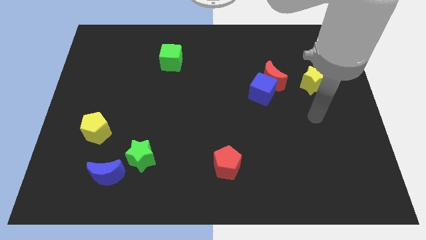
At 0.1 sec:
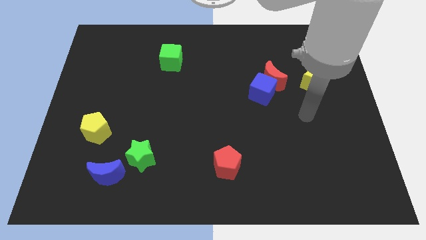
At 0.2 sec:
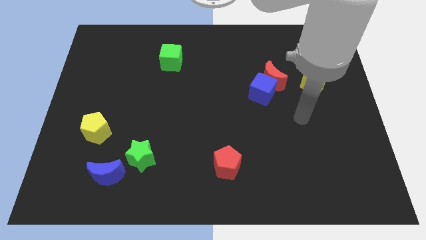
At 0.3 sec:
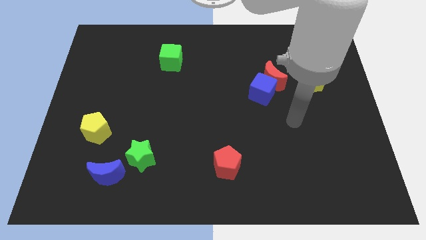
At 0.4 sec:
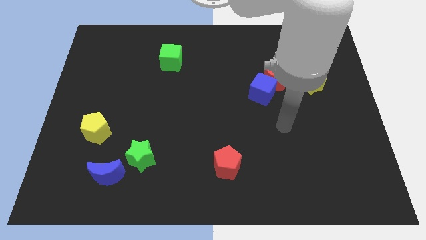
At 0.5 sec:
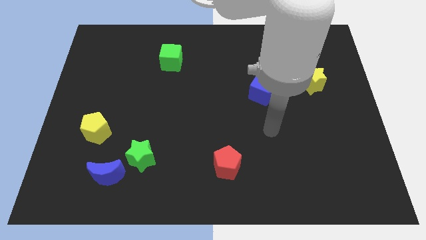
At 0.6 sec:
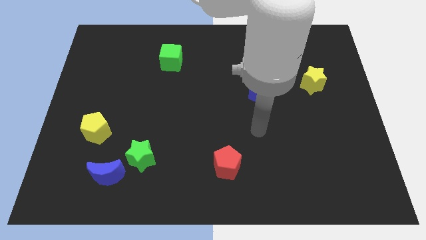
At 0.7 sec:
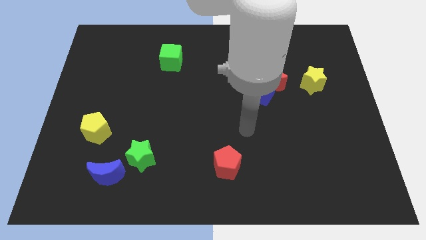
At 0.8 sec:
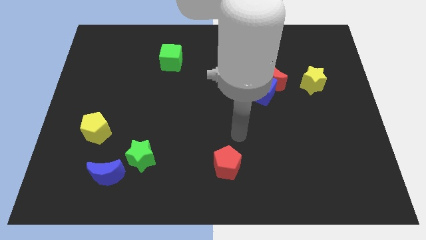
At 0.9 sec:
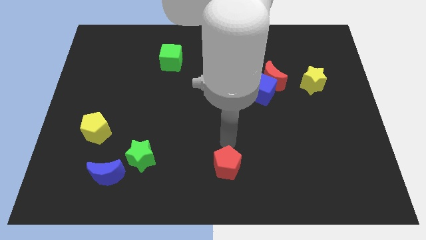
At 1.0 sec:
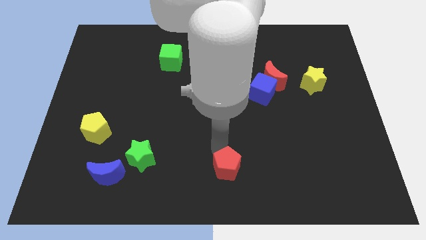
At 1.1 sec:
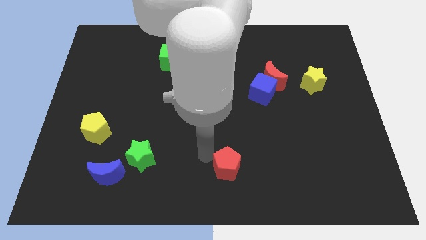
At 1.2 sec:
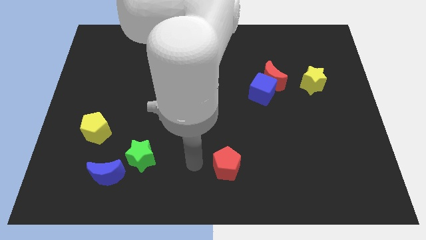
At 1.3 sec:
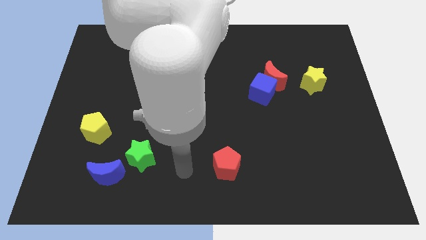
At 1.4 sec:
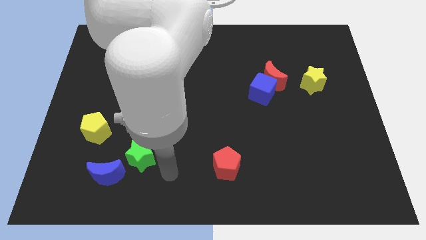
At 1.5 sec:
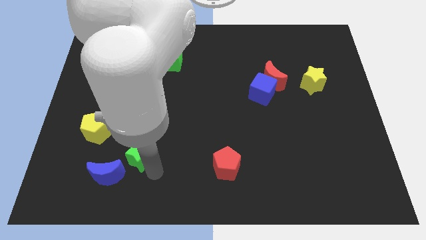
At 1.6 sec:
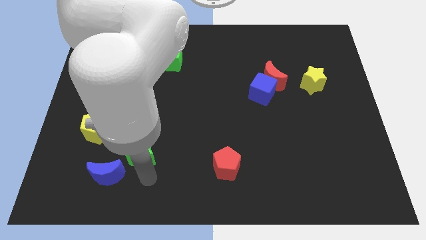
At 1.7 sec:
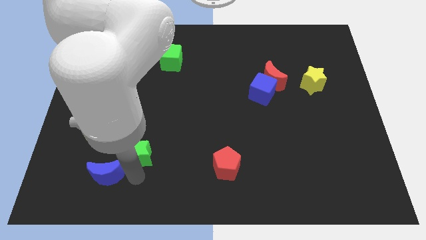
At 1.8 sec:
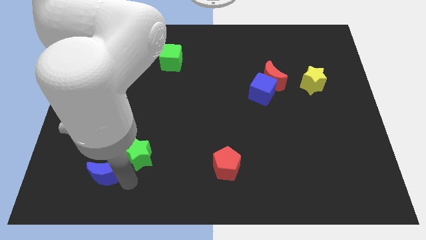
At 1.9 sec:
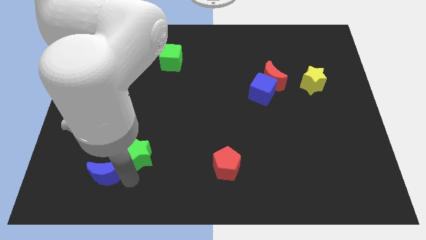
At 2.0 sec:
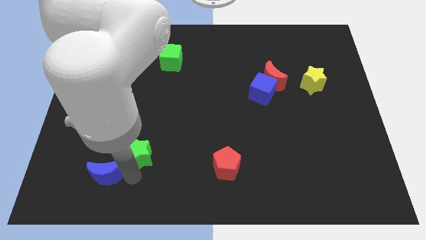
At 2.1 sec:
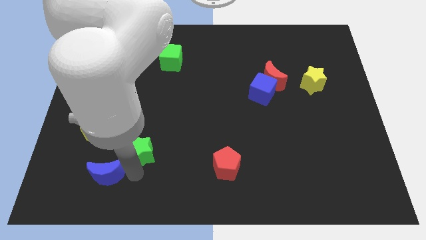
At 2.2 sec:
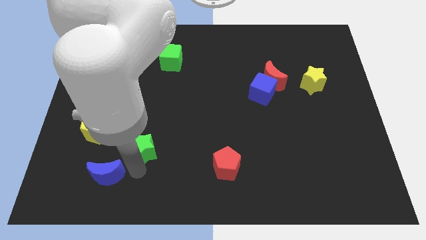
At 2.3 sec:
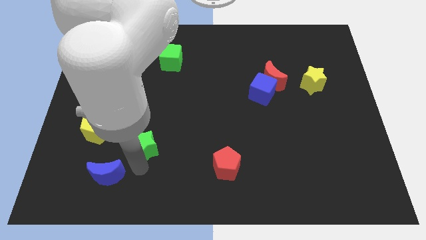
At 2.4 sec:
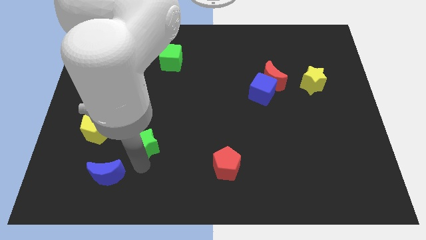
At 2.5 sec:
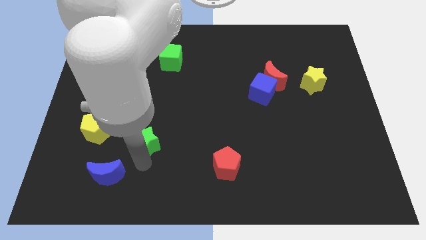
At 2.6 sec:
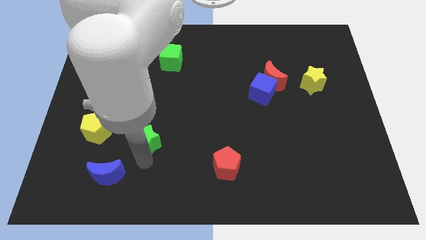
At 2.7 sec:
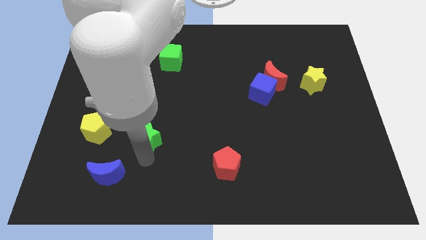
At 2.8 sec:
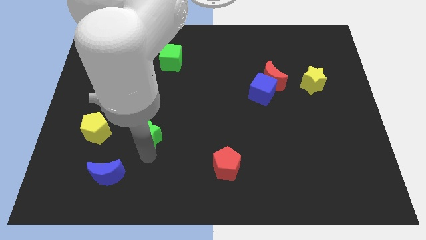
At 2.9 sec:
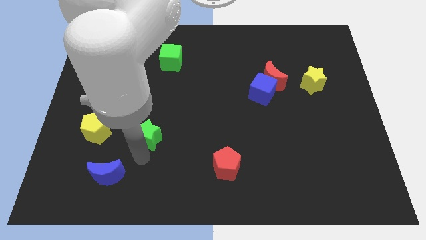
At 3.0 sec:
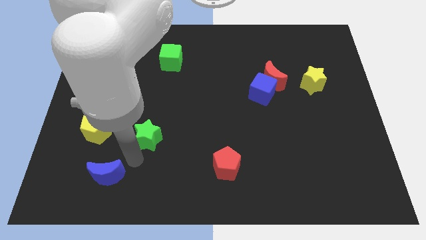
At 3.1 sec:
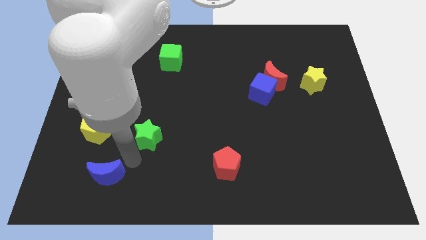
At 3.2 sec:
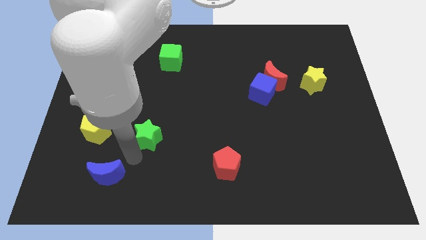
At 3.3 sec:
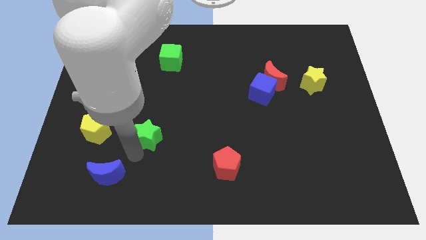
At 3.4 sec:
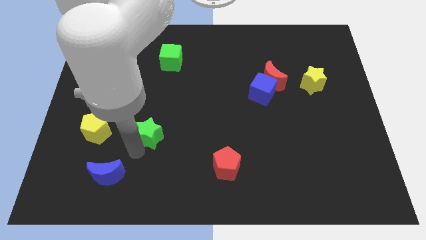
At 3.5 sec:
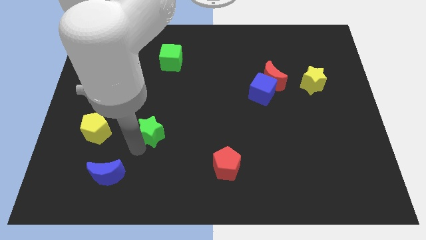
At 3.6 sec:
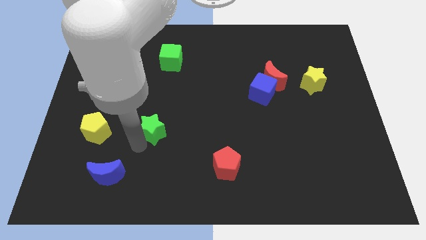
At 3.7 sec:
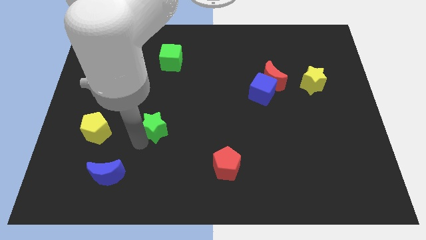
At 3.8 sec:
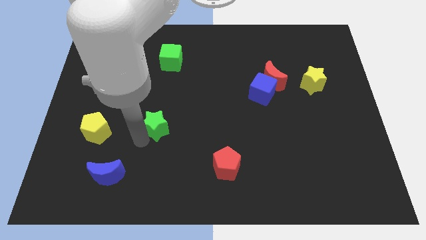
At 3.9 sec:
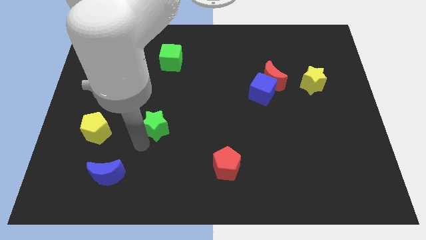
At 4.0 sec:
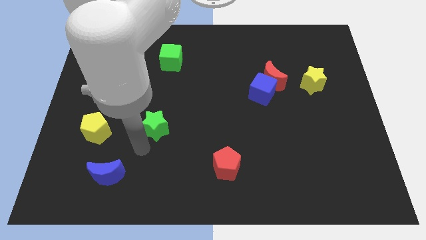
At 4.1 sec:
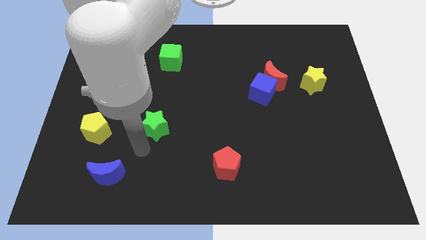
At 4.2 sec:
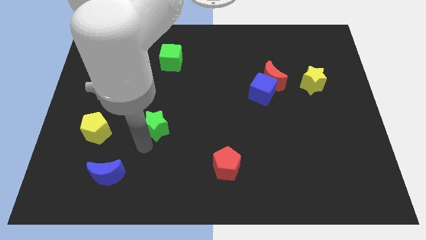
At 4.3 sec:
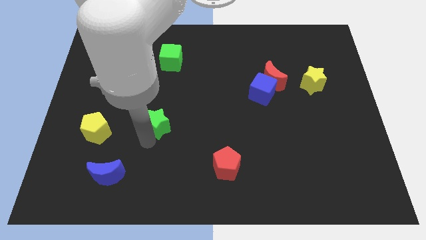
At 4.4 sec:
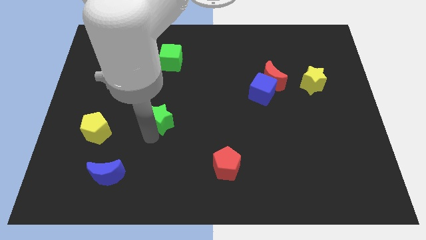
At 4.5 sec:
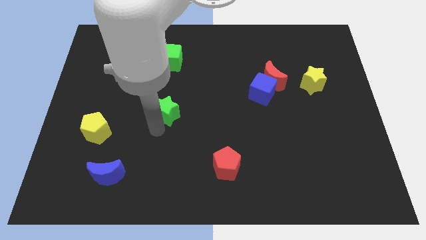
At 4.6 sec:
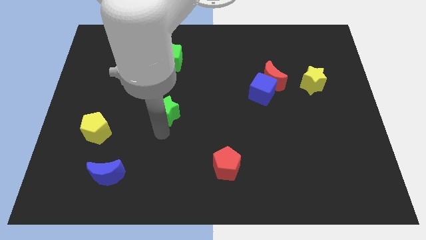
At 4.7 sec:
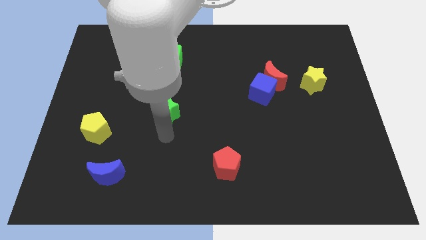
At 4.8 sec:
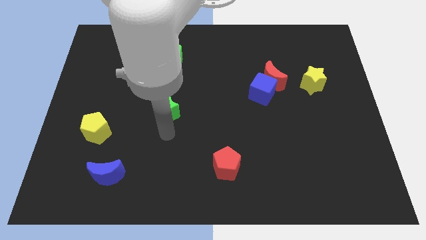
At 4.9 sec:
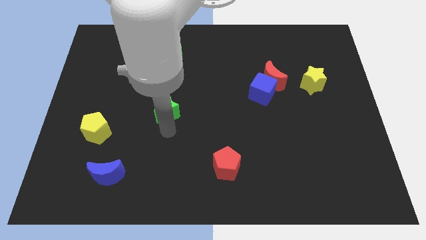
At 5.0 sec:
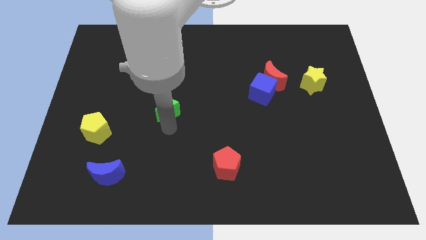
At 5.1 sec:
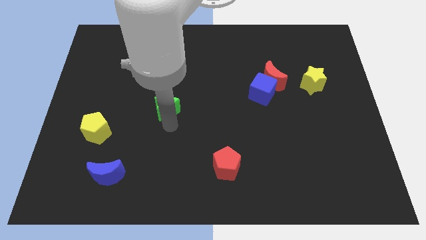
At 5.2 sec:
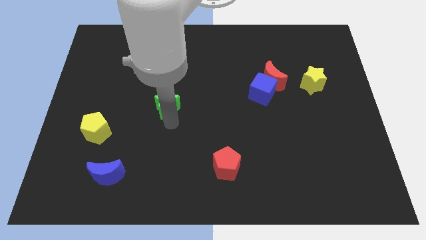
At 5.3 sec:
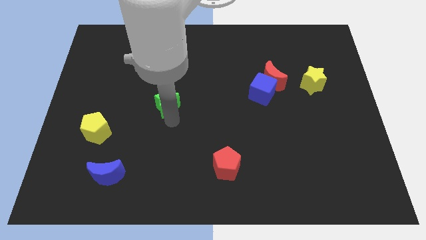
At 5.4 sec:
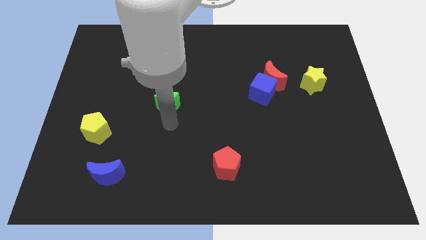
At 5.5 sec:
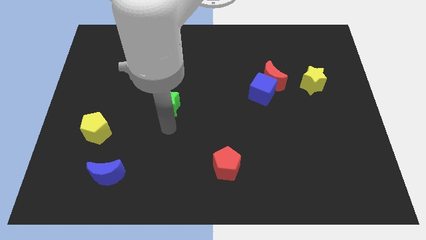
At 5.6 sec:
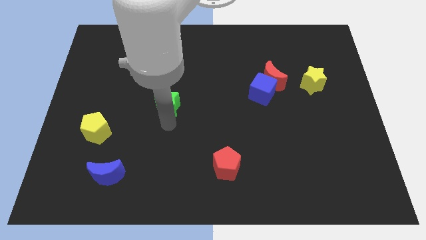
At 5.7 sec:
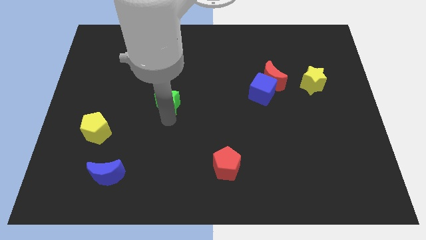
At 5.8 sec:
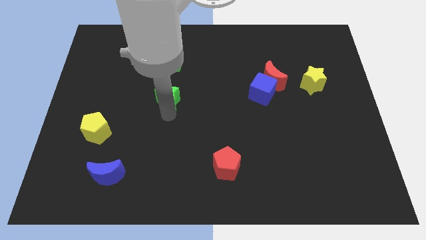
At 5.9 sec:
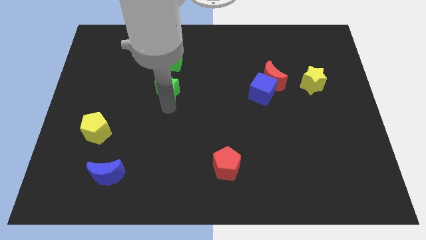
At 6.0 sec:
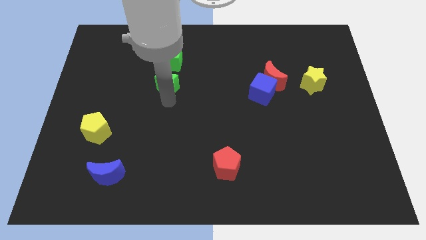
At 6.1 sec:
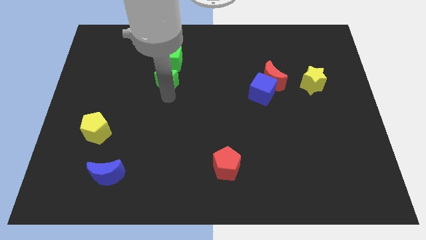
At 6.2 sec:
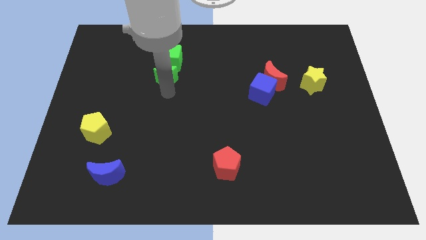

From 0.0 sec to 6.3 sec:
put the green star close to the green cube

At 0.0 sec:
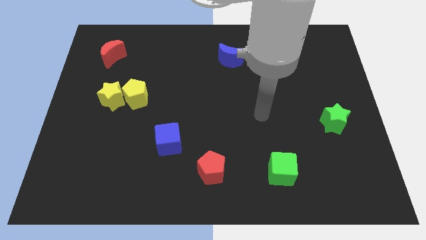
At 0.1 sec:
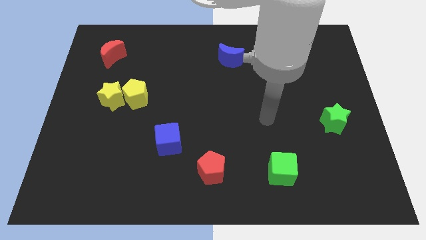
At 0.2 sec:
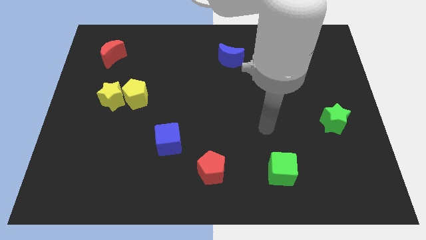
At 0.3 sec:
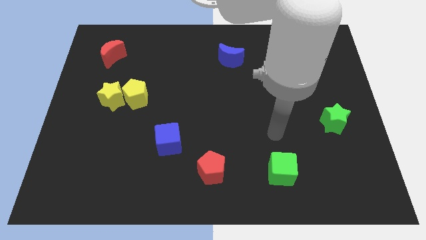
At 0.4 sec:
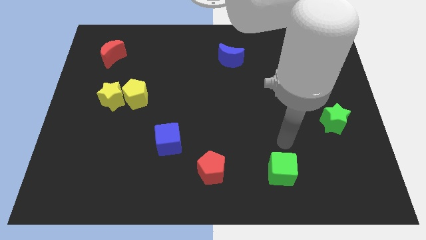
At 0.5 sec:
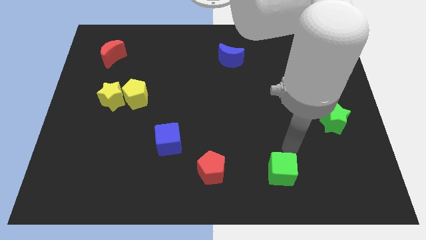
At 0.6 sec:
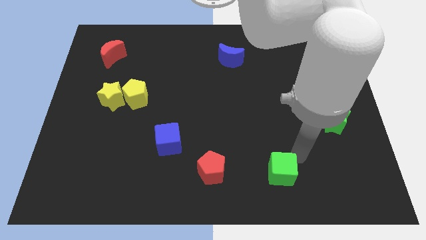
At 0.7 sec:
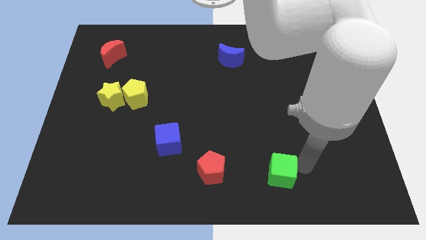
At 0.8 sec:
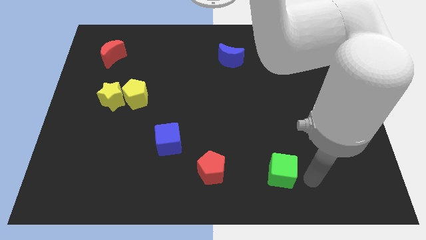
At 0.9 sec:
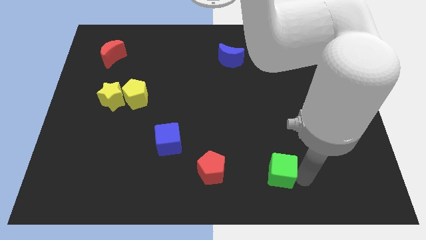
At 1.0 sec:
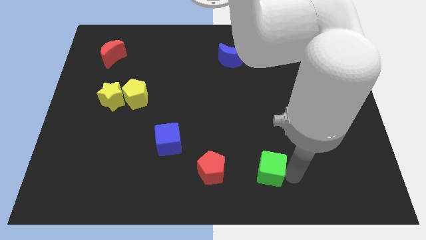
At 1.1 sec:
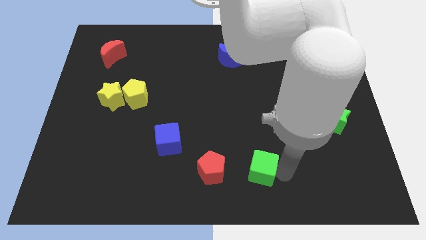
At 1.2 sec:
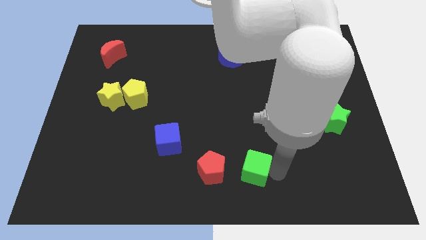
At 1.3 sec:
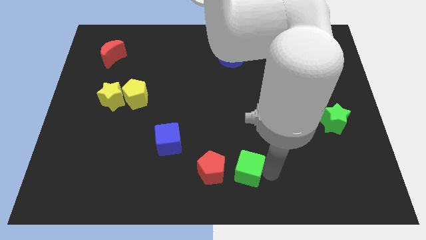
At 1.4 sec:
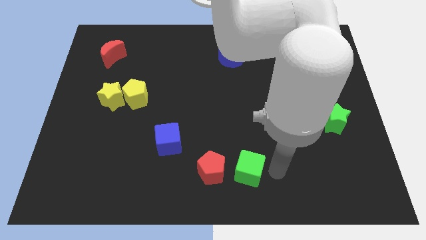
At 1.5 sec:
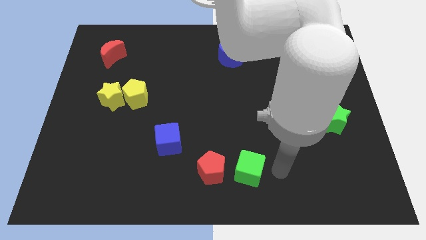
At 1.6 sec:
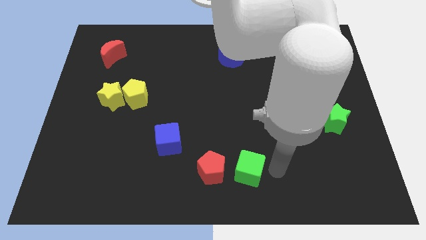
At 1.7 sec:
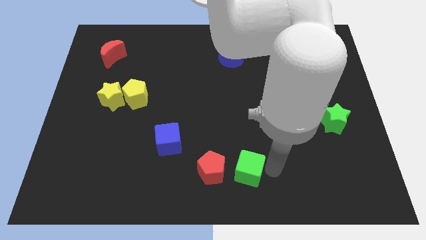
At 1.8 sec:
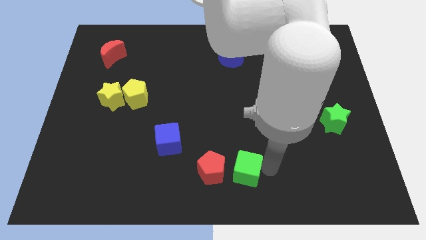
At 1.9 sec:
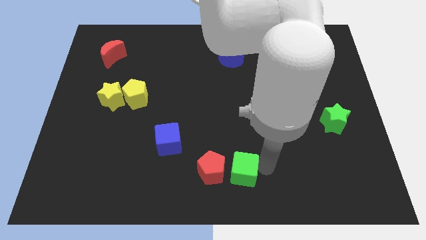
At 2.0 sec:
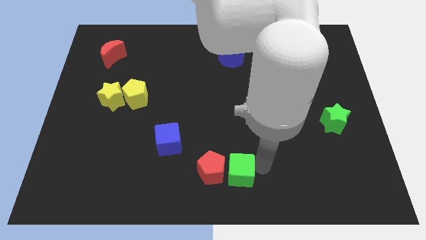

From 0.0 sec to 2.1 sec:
put the green cube to the red pentagon
